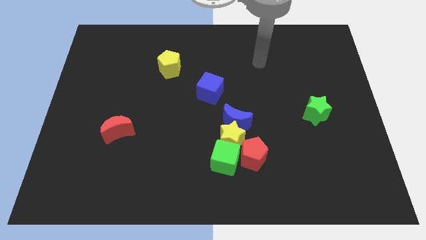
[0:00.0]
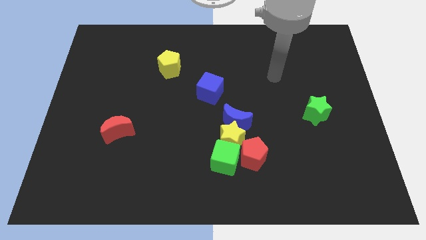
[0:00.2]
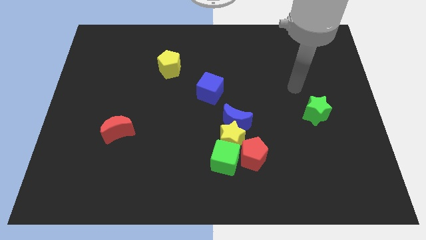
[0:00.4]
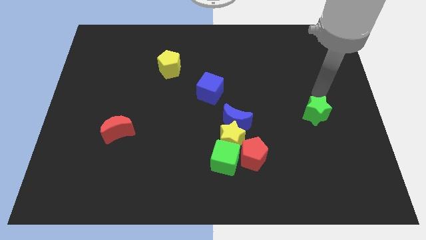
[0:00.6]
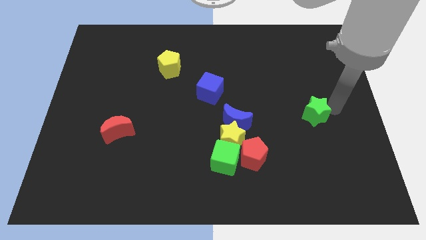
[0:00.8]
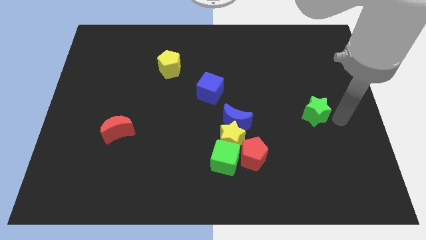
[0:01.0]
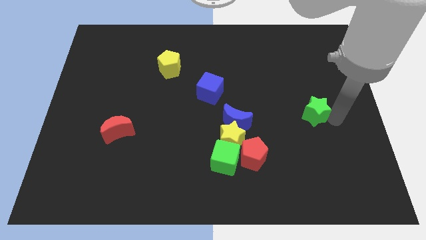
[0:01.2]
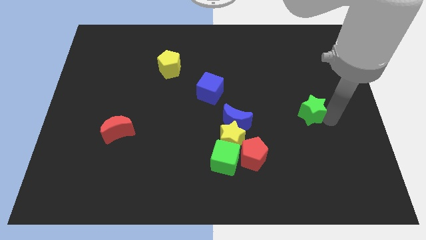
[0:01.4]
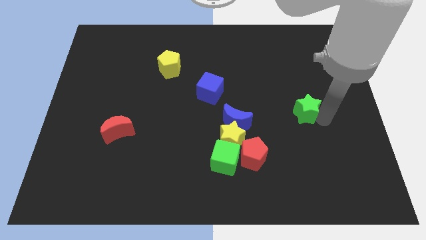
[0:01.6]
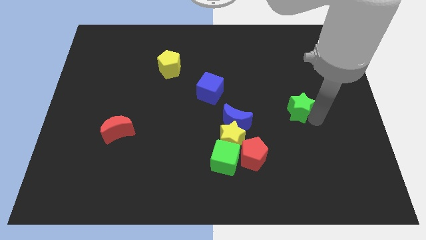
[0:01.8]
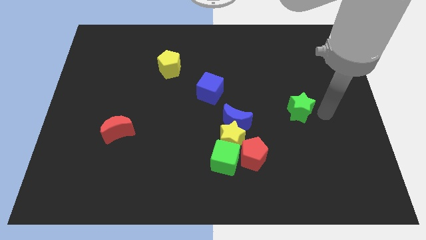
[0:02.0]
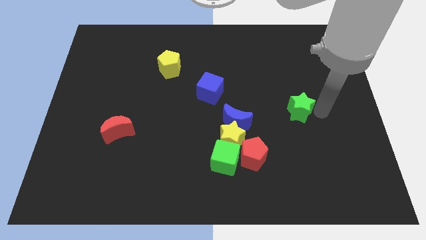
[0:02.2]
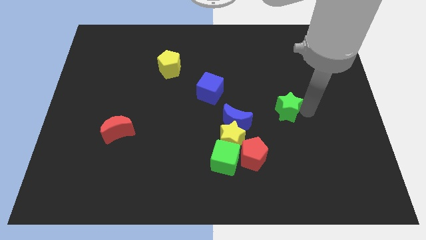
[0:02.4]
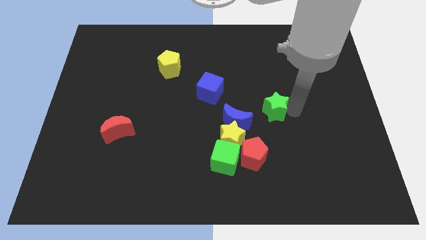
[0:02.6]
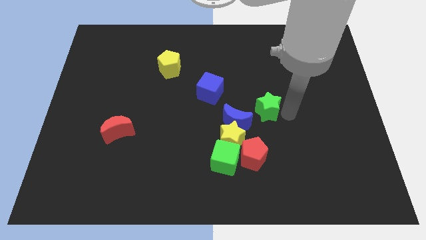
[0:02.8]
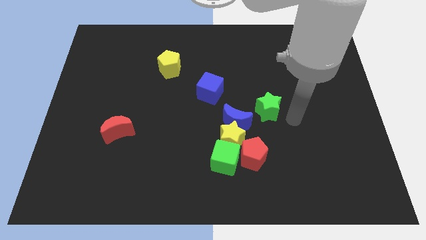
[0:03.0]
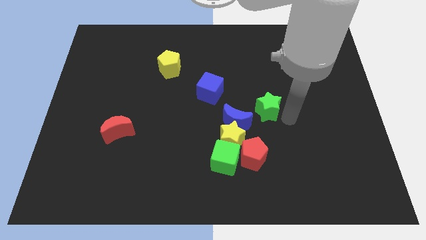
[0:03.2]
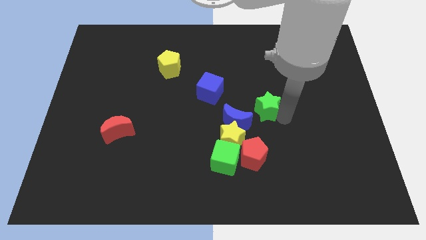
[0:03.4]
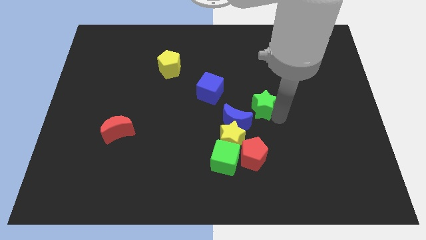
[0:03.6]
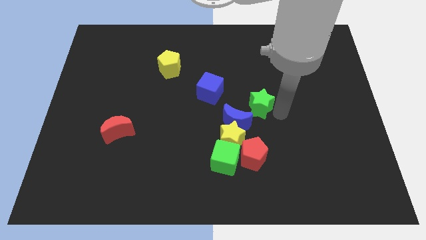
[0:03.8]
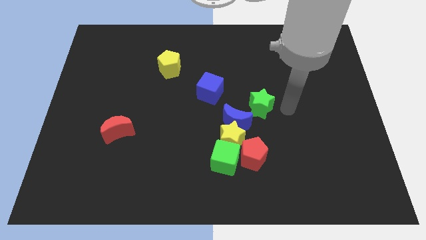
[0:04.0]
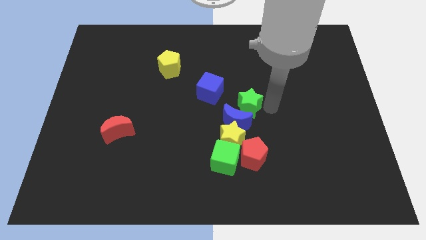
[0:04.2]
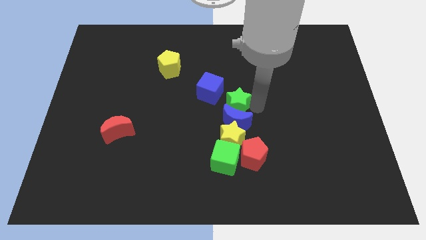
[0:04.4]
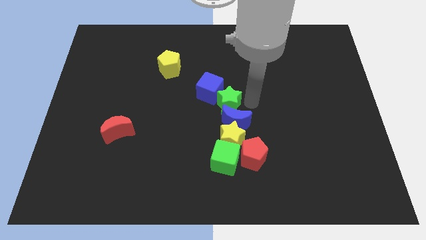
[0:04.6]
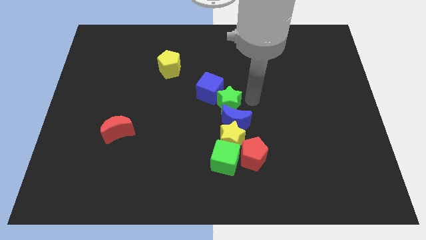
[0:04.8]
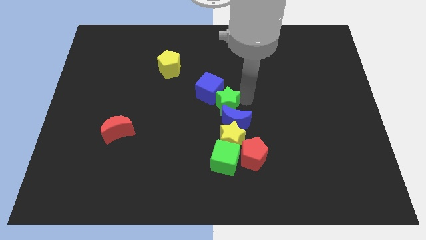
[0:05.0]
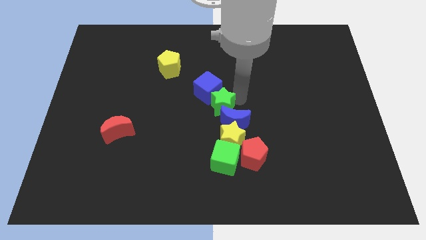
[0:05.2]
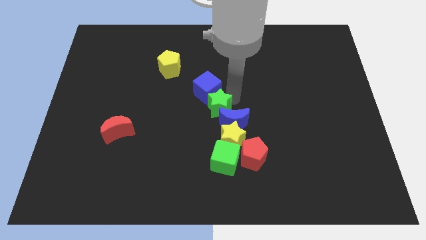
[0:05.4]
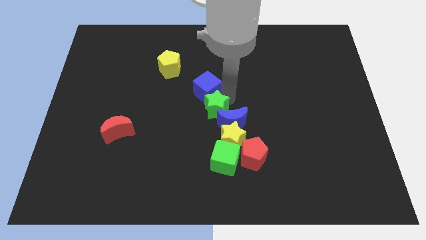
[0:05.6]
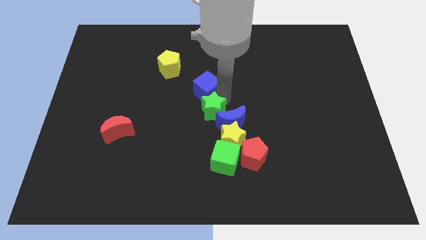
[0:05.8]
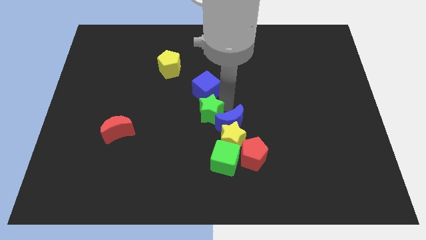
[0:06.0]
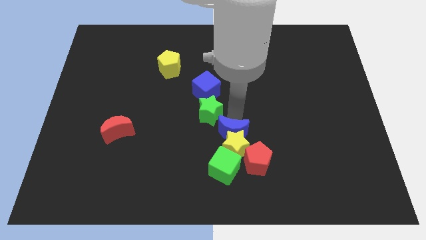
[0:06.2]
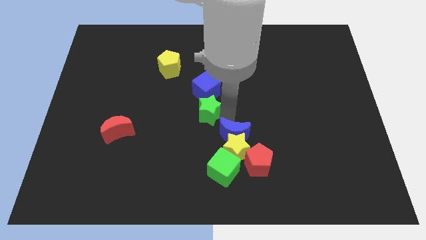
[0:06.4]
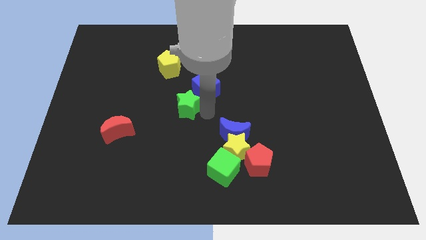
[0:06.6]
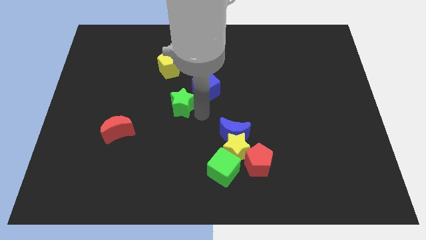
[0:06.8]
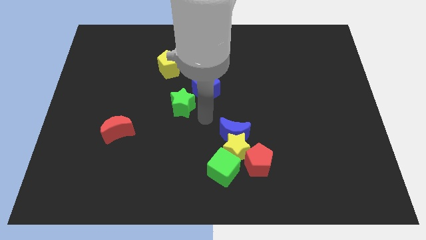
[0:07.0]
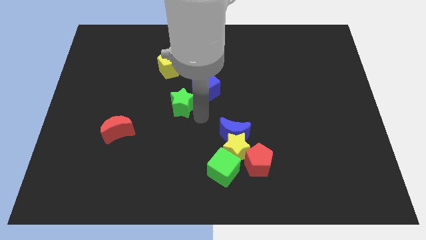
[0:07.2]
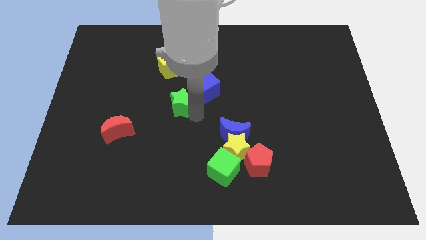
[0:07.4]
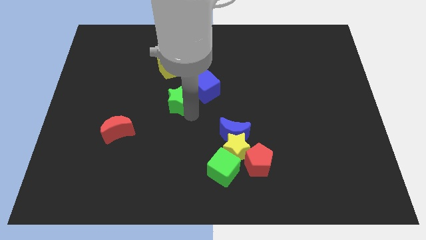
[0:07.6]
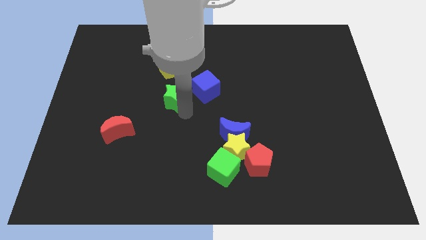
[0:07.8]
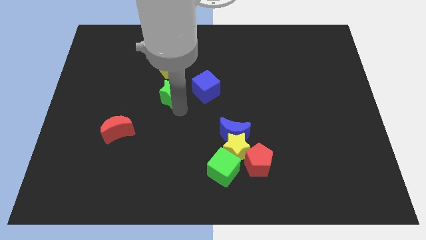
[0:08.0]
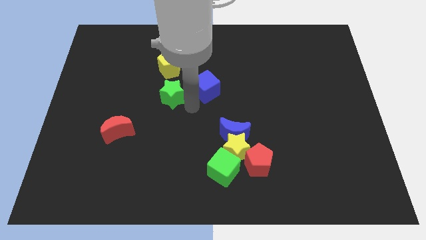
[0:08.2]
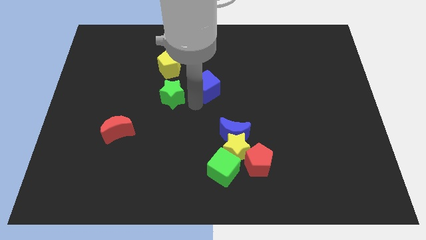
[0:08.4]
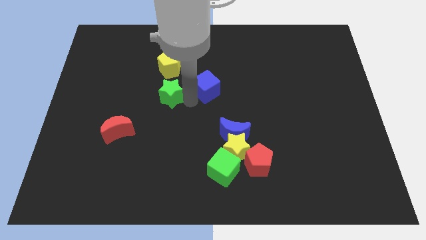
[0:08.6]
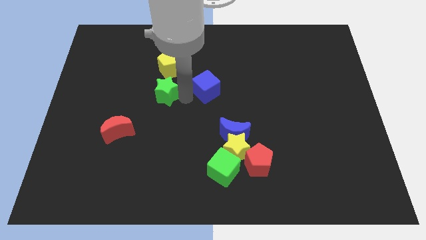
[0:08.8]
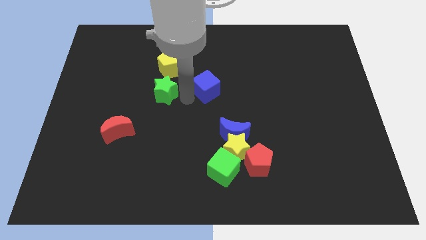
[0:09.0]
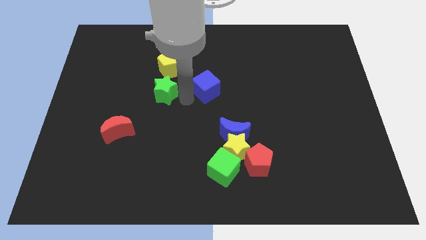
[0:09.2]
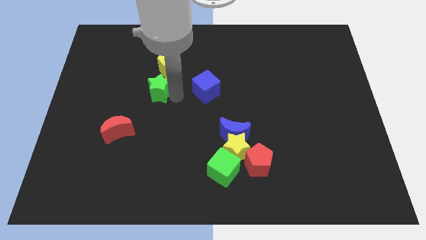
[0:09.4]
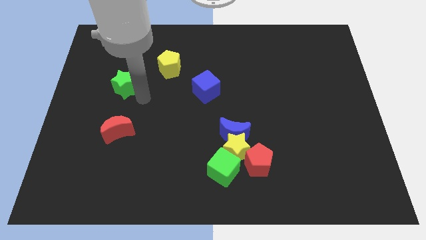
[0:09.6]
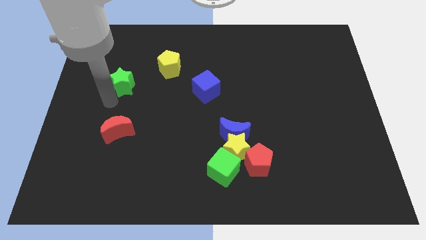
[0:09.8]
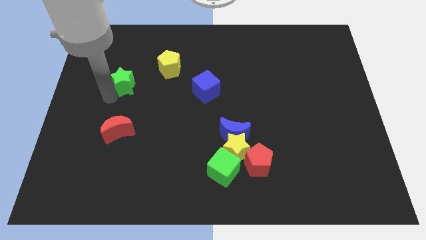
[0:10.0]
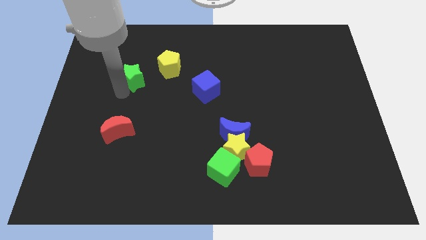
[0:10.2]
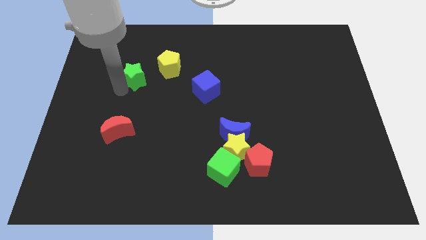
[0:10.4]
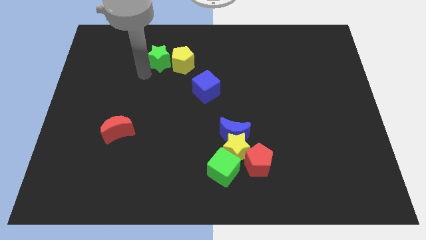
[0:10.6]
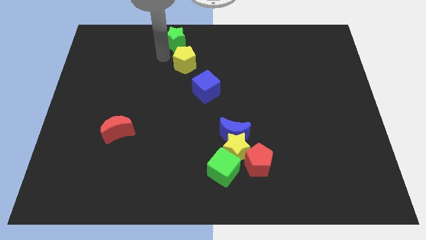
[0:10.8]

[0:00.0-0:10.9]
put the green star to the towards your base

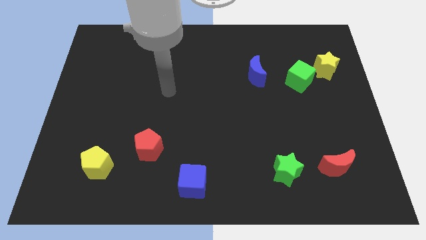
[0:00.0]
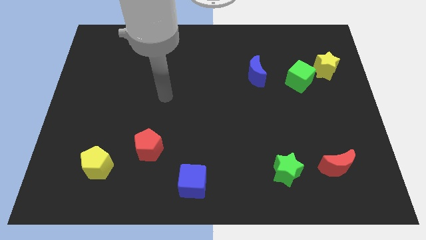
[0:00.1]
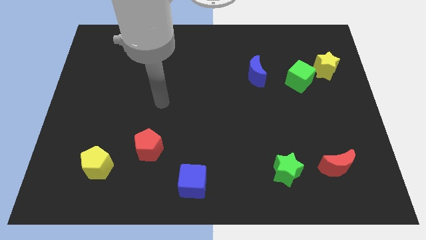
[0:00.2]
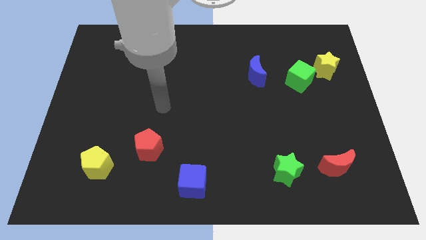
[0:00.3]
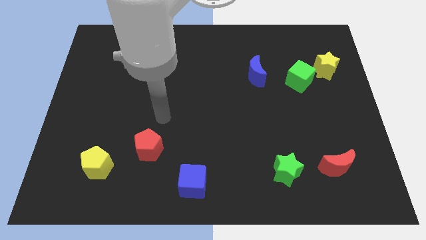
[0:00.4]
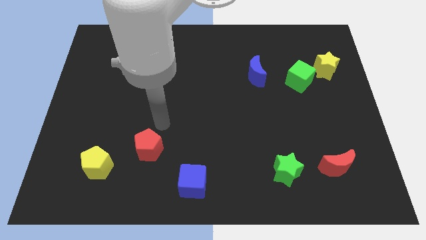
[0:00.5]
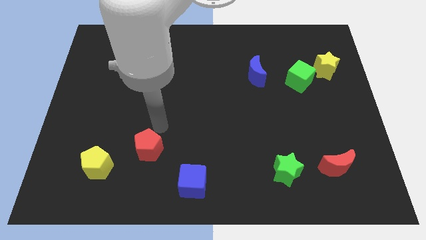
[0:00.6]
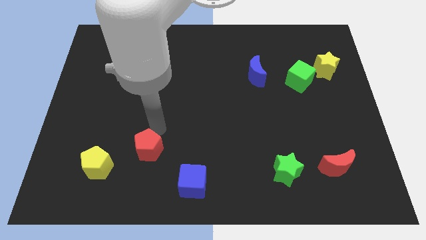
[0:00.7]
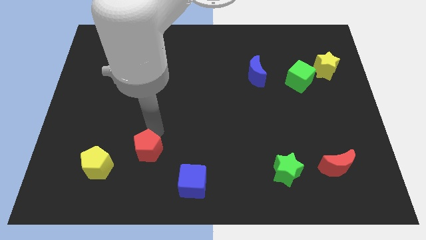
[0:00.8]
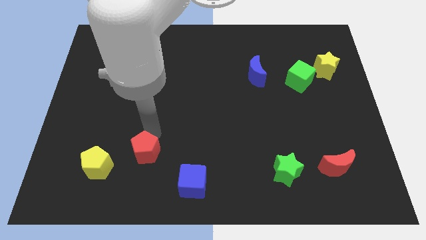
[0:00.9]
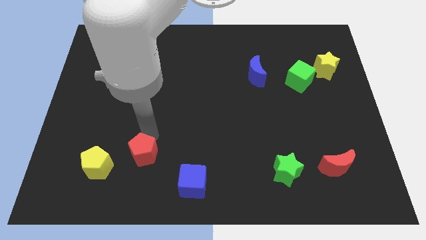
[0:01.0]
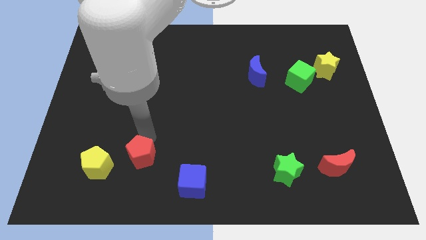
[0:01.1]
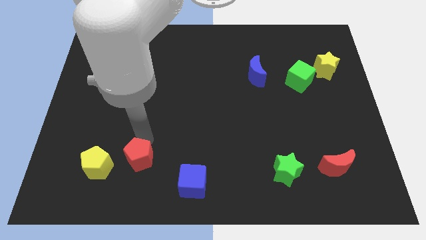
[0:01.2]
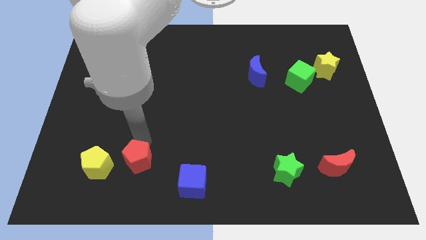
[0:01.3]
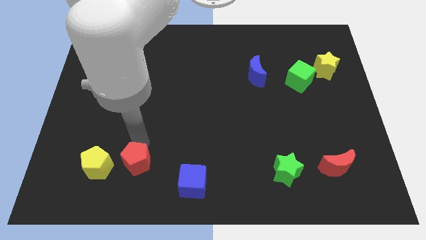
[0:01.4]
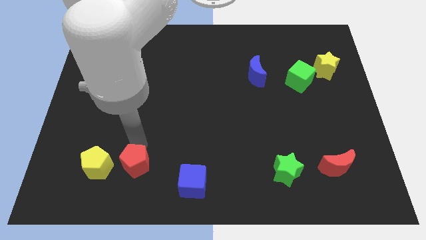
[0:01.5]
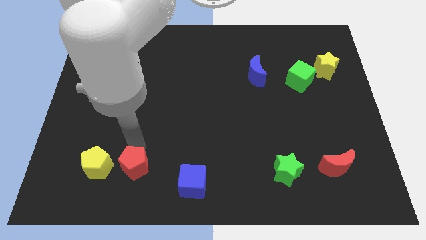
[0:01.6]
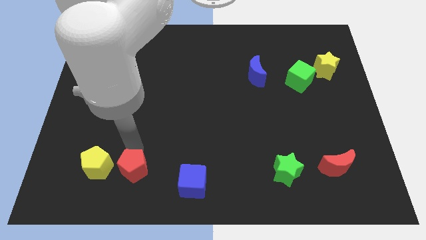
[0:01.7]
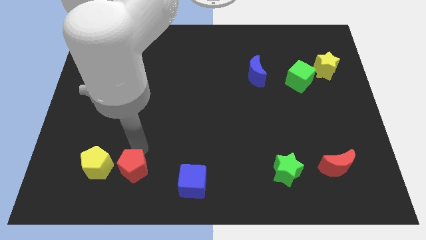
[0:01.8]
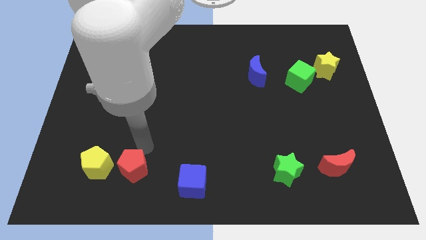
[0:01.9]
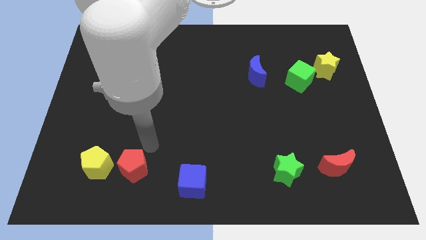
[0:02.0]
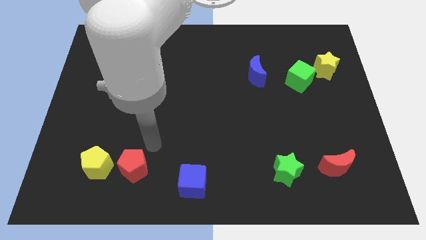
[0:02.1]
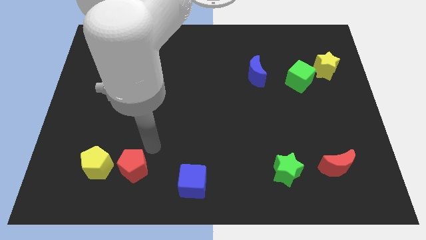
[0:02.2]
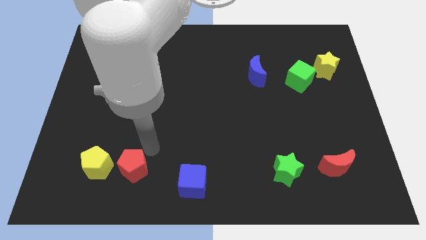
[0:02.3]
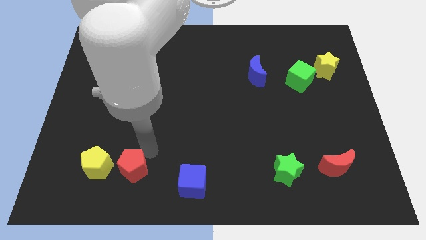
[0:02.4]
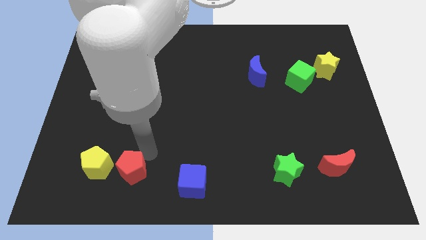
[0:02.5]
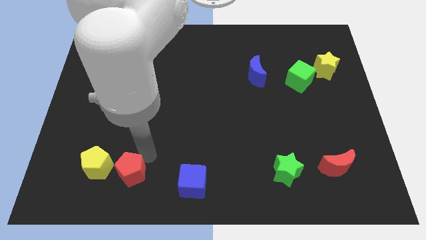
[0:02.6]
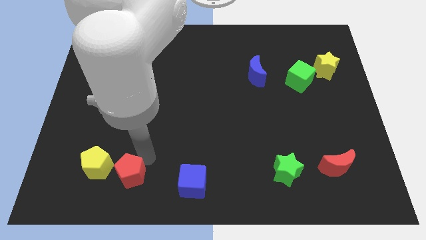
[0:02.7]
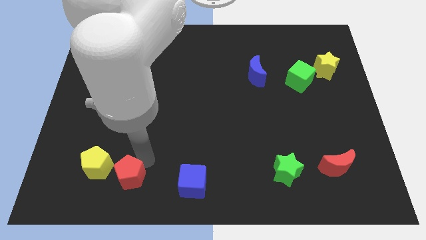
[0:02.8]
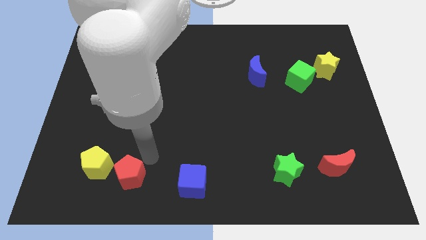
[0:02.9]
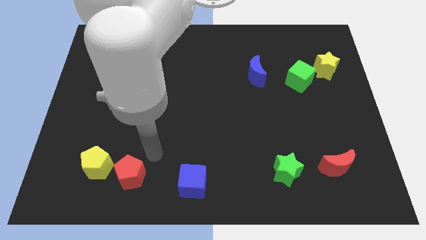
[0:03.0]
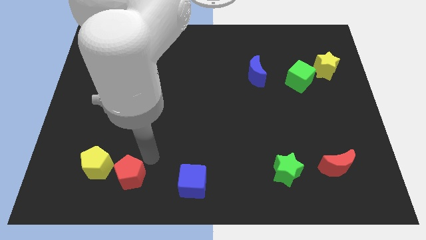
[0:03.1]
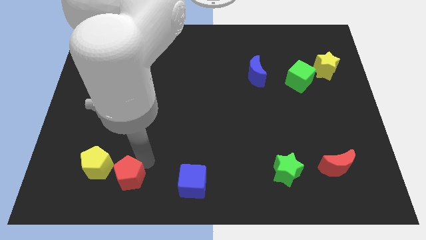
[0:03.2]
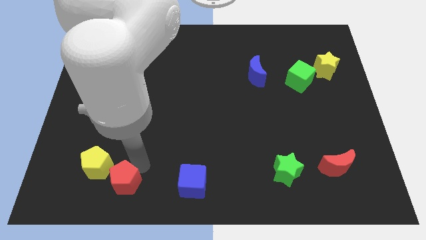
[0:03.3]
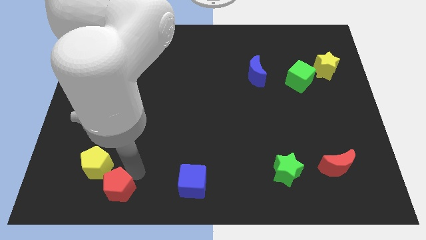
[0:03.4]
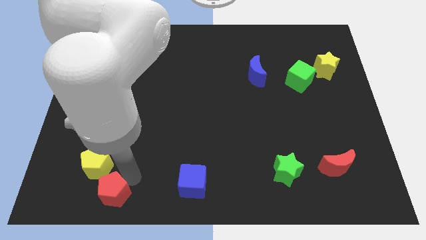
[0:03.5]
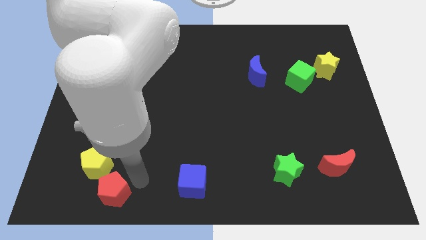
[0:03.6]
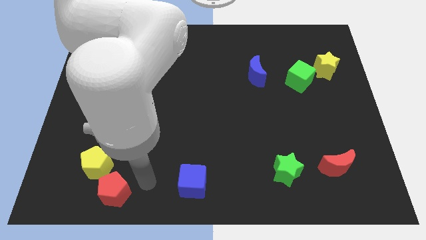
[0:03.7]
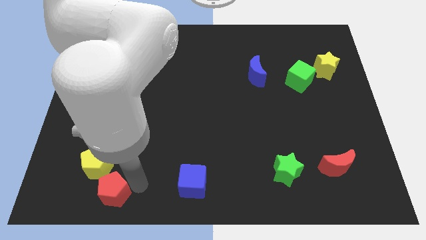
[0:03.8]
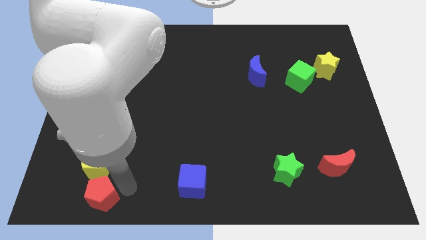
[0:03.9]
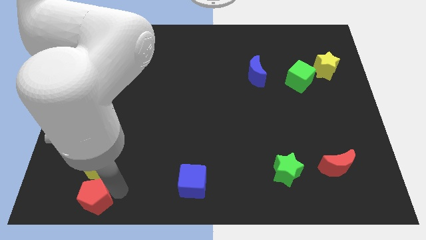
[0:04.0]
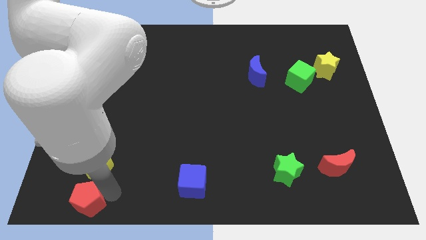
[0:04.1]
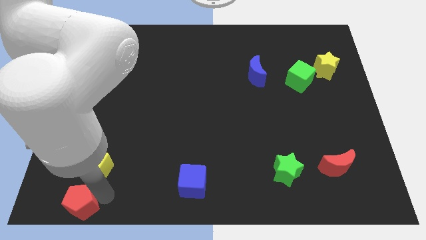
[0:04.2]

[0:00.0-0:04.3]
slide the red pentagon to the bottom left
